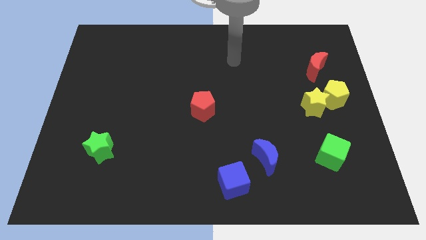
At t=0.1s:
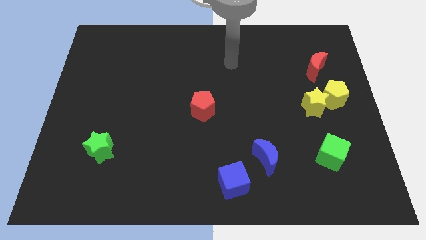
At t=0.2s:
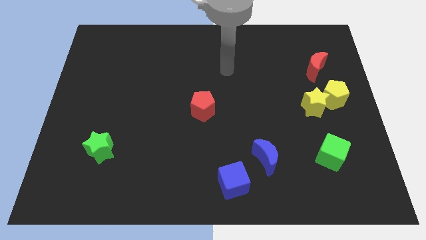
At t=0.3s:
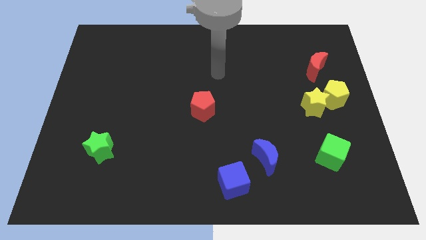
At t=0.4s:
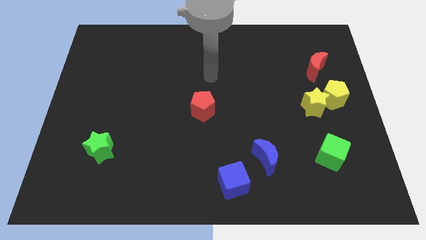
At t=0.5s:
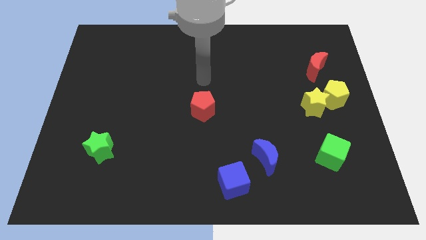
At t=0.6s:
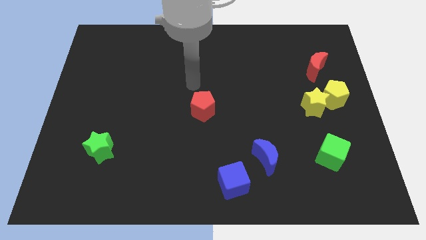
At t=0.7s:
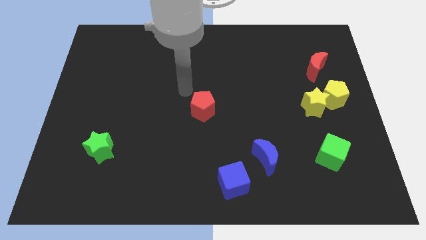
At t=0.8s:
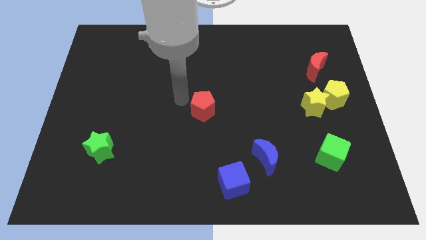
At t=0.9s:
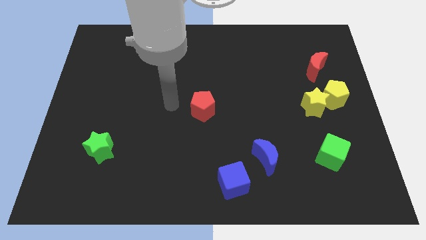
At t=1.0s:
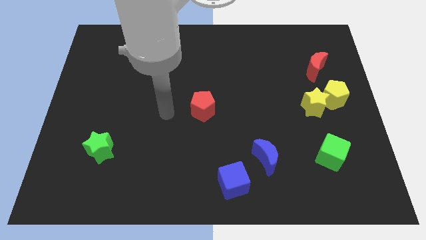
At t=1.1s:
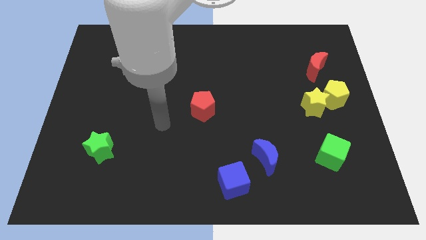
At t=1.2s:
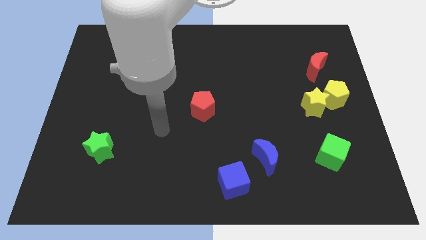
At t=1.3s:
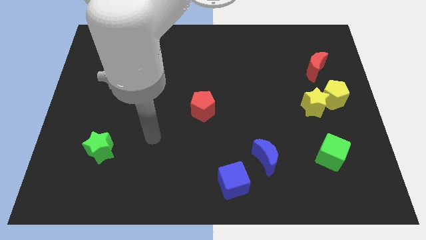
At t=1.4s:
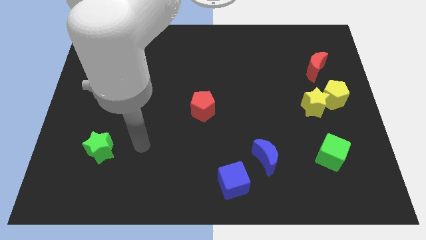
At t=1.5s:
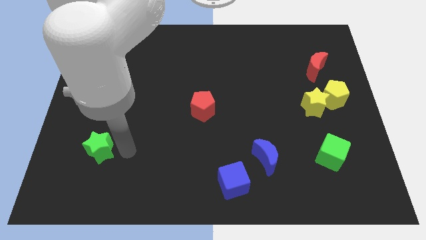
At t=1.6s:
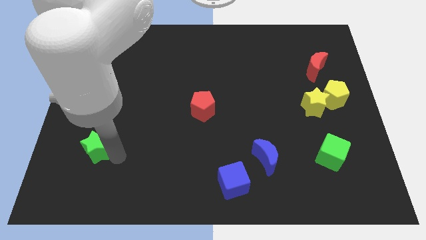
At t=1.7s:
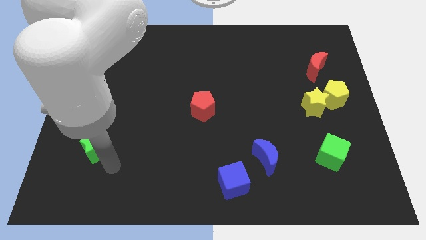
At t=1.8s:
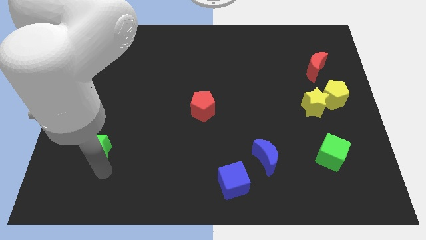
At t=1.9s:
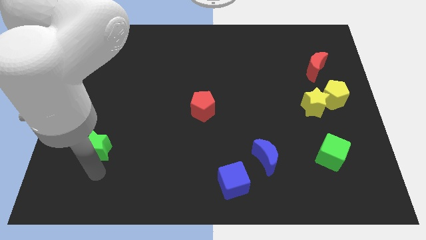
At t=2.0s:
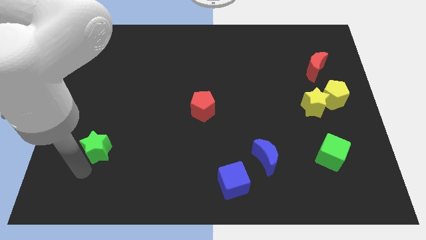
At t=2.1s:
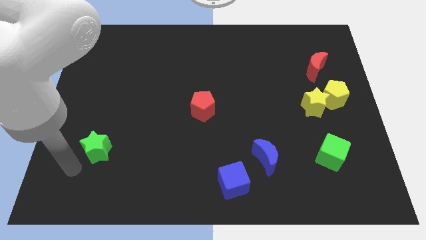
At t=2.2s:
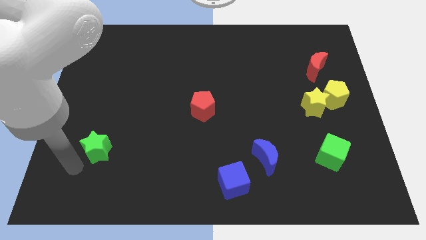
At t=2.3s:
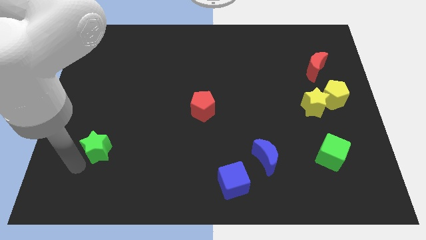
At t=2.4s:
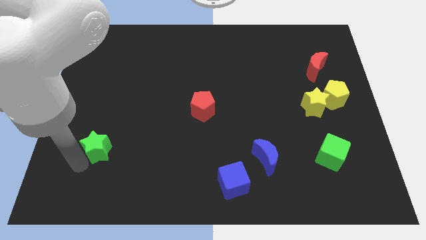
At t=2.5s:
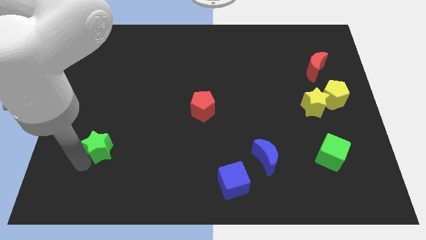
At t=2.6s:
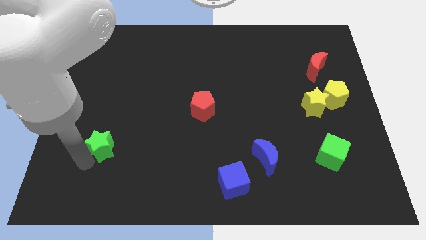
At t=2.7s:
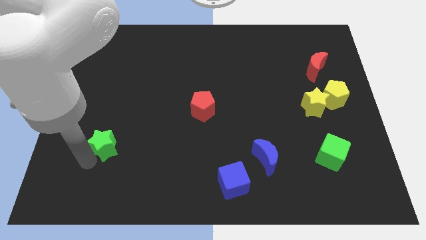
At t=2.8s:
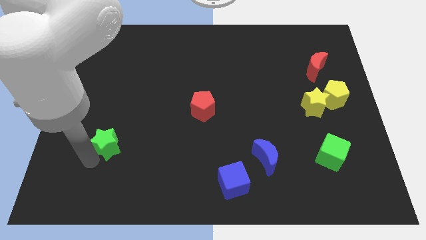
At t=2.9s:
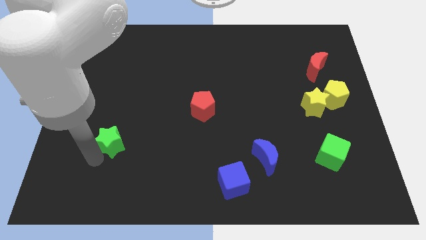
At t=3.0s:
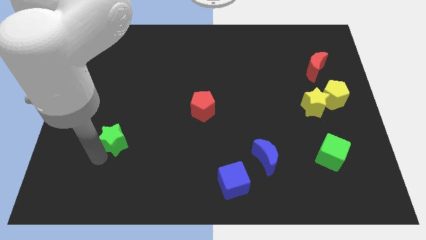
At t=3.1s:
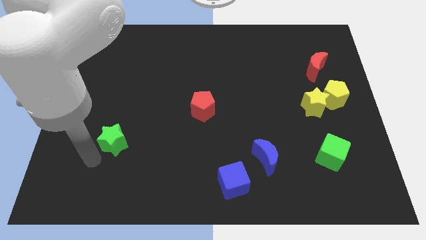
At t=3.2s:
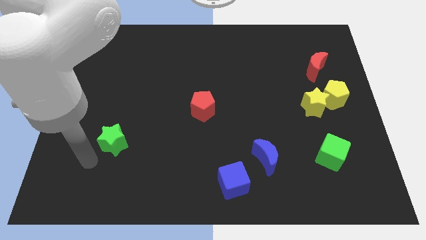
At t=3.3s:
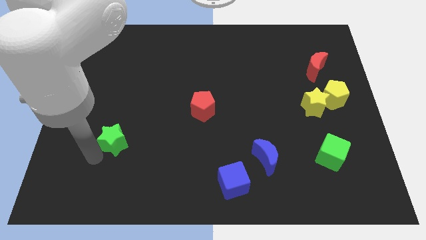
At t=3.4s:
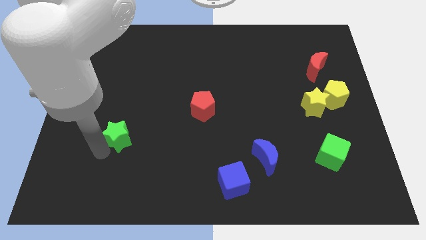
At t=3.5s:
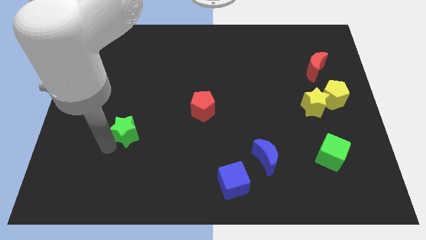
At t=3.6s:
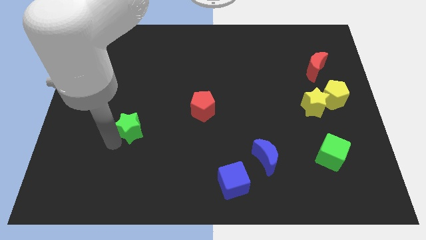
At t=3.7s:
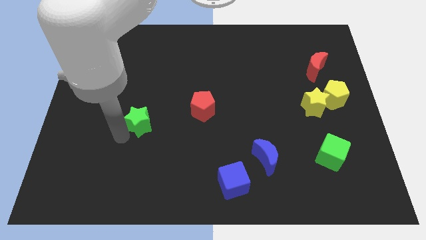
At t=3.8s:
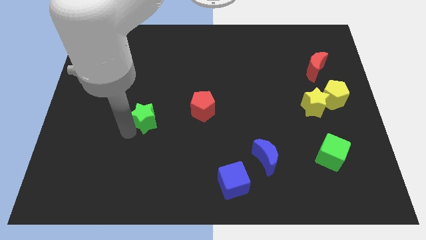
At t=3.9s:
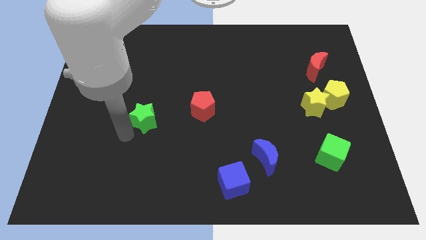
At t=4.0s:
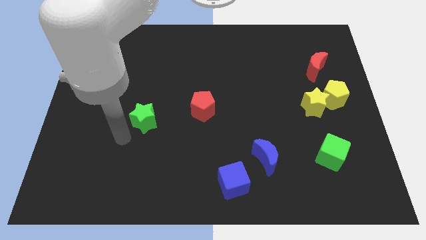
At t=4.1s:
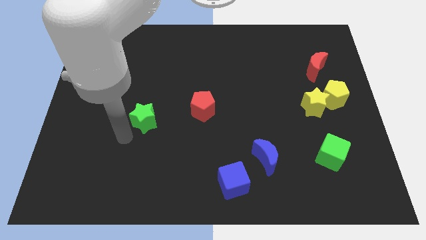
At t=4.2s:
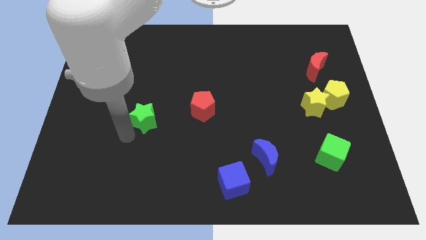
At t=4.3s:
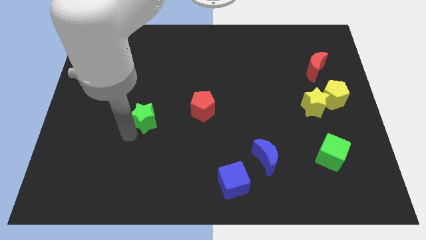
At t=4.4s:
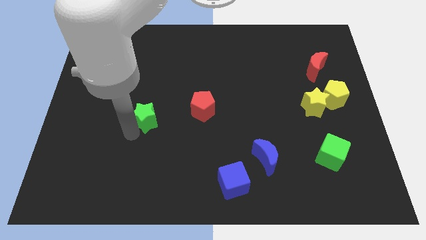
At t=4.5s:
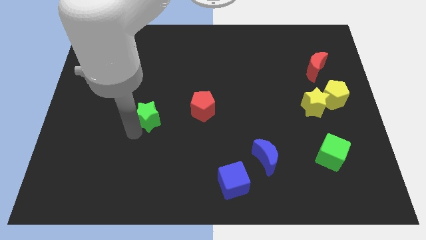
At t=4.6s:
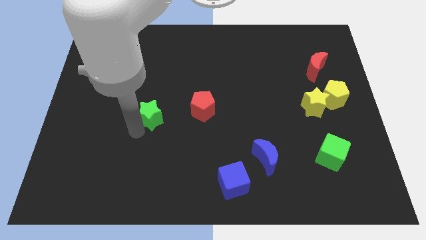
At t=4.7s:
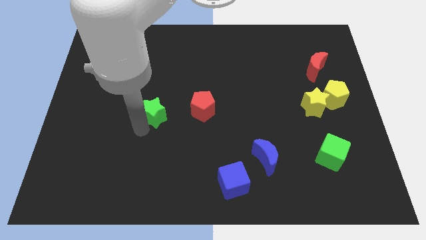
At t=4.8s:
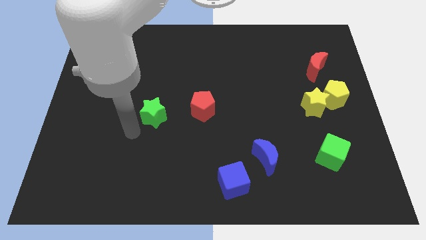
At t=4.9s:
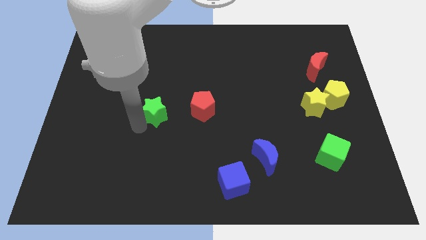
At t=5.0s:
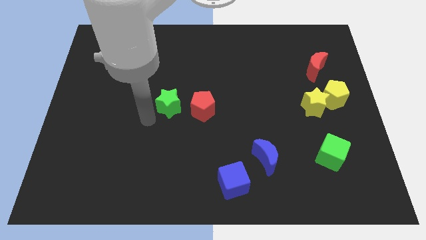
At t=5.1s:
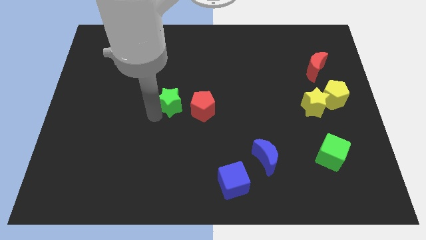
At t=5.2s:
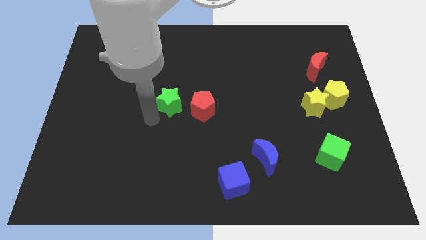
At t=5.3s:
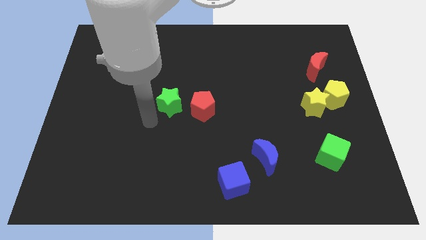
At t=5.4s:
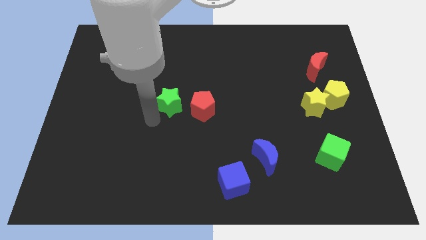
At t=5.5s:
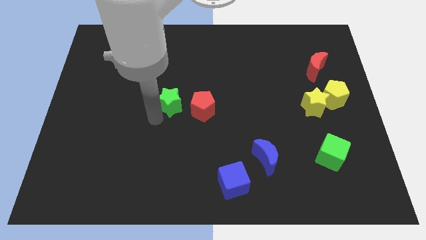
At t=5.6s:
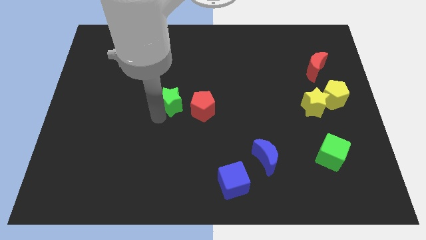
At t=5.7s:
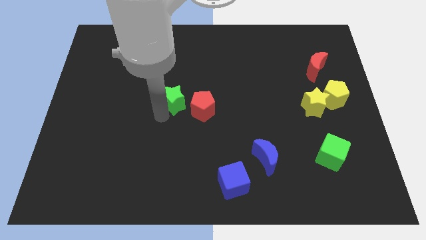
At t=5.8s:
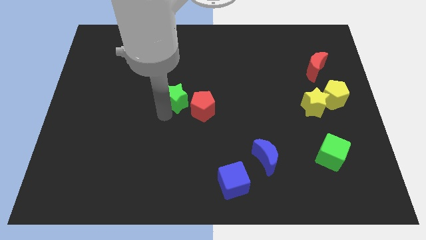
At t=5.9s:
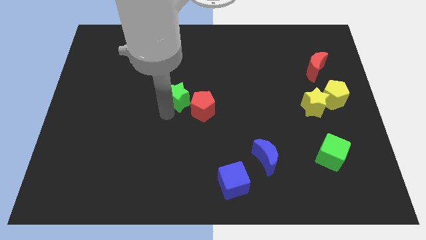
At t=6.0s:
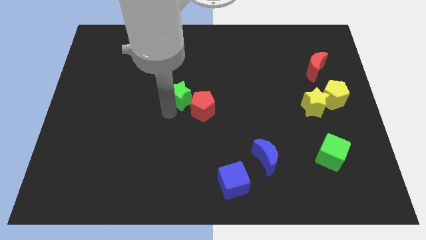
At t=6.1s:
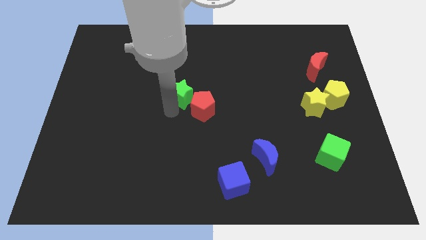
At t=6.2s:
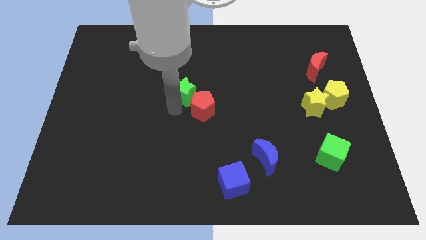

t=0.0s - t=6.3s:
put the green star to the top side of the red pentagon

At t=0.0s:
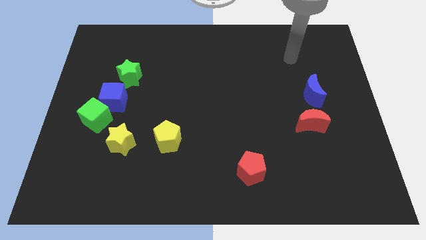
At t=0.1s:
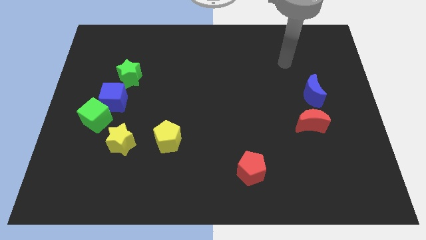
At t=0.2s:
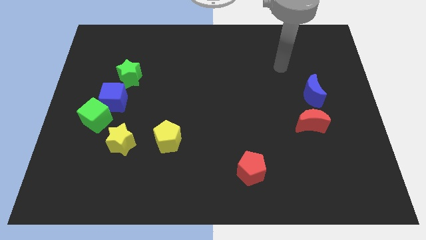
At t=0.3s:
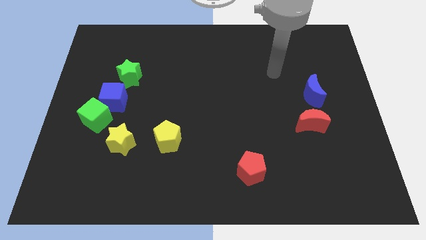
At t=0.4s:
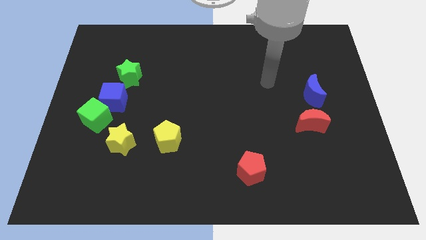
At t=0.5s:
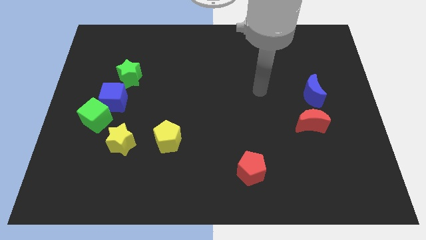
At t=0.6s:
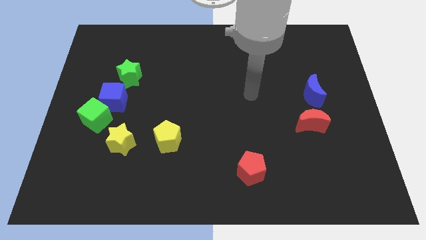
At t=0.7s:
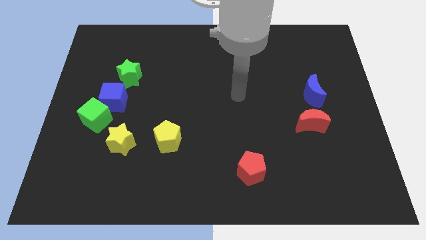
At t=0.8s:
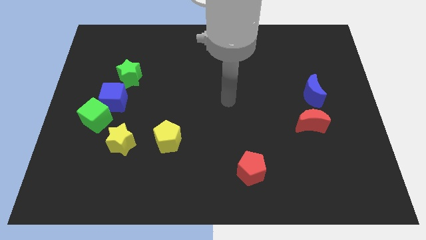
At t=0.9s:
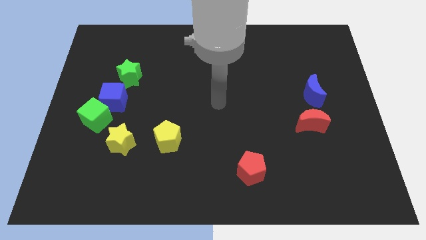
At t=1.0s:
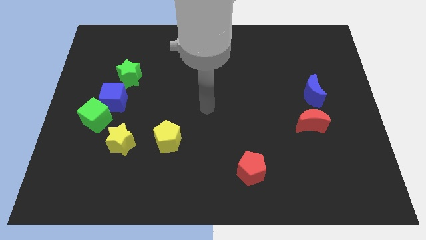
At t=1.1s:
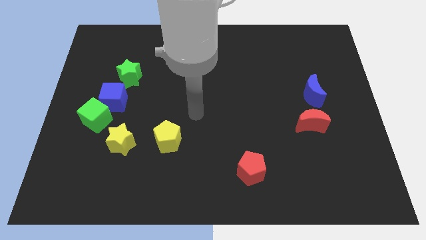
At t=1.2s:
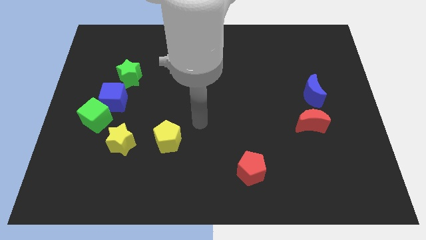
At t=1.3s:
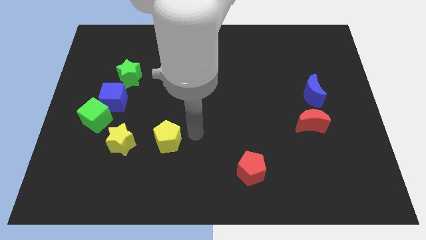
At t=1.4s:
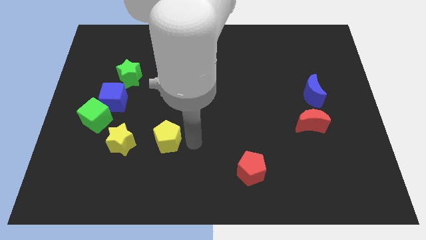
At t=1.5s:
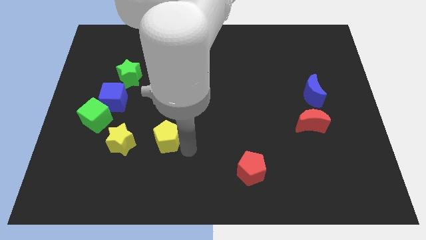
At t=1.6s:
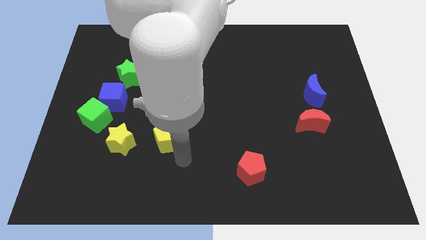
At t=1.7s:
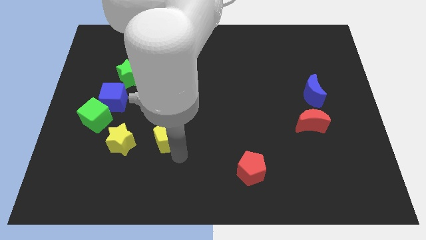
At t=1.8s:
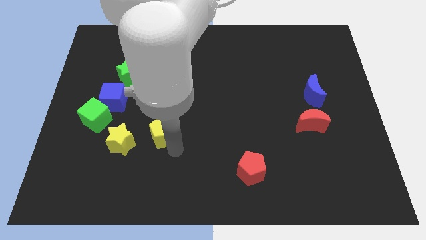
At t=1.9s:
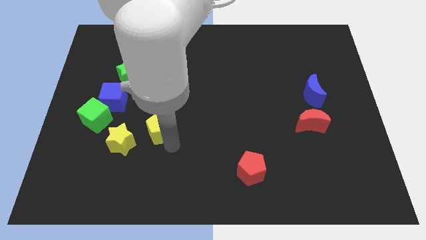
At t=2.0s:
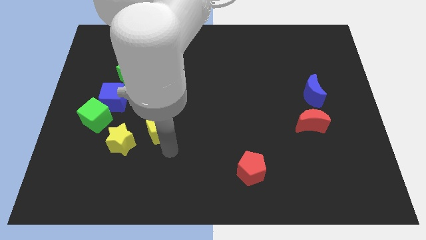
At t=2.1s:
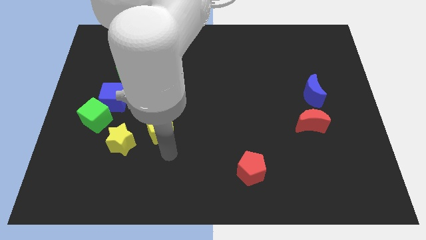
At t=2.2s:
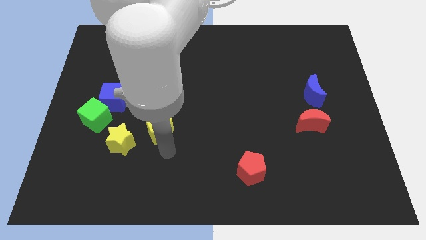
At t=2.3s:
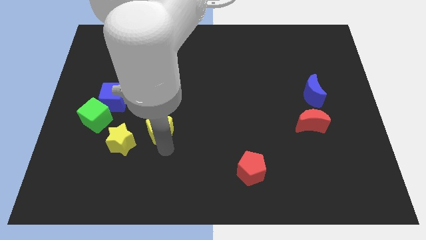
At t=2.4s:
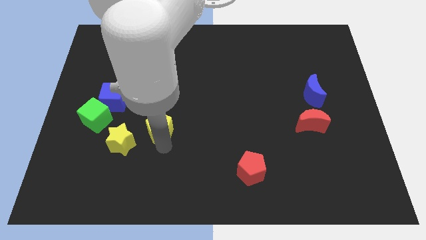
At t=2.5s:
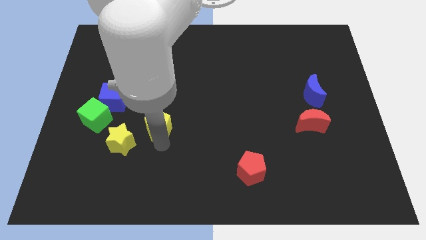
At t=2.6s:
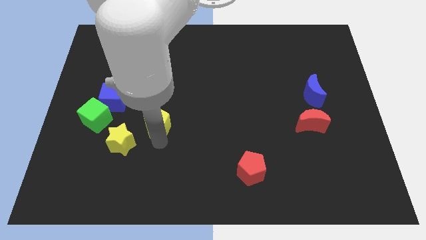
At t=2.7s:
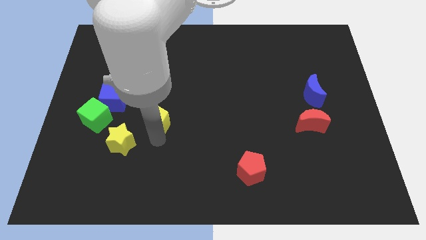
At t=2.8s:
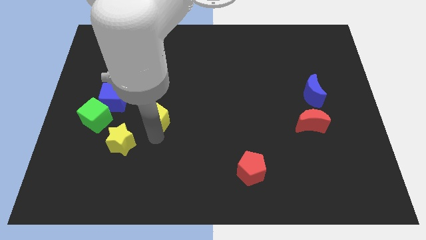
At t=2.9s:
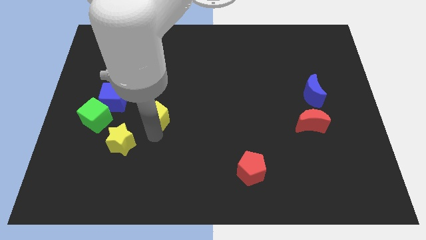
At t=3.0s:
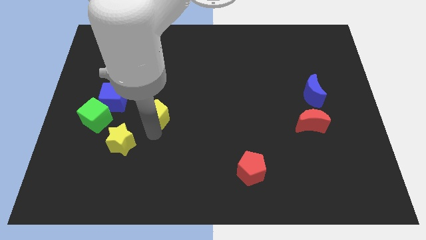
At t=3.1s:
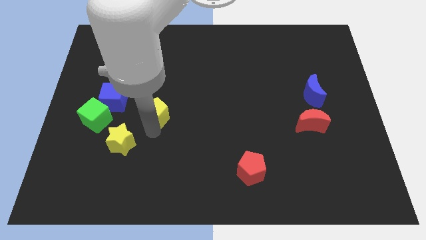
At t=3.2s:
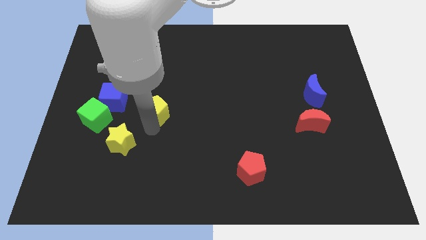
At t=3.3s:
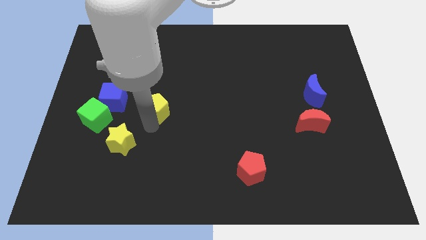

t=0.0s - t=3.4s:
move the yellow pentagon to the bottom right side of the green star
